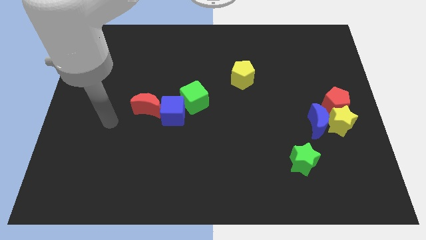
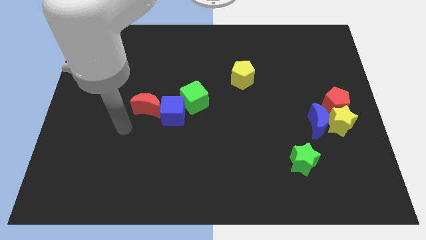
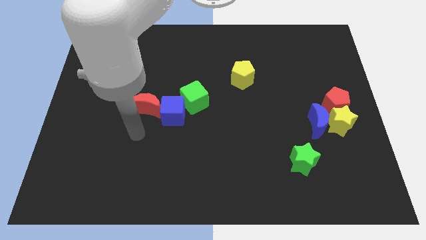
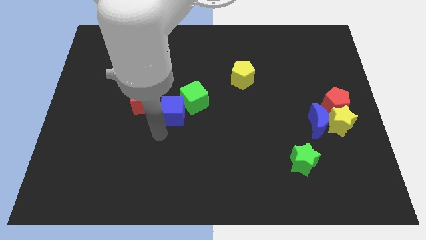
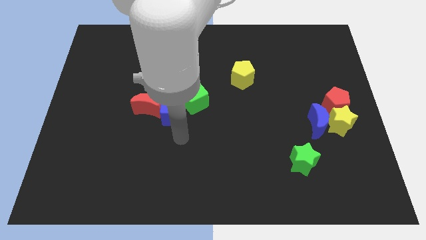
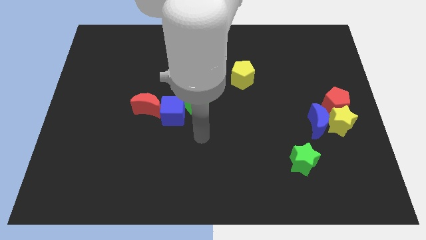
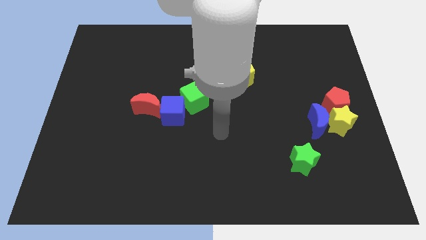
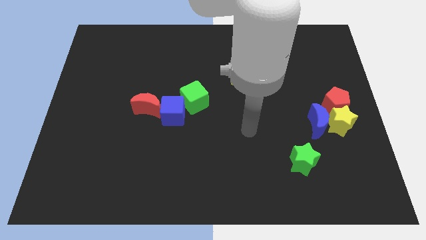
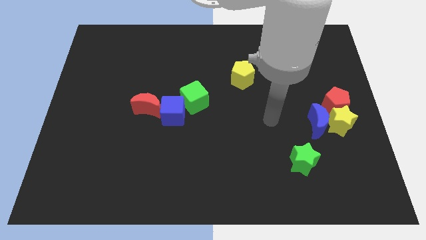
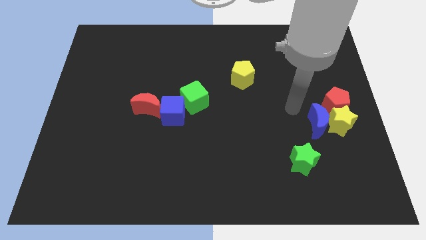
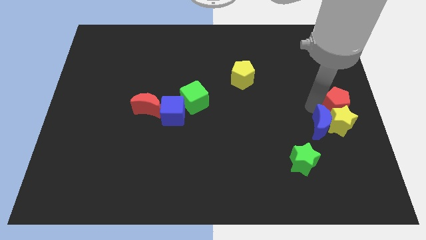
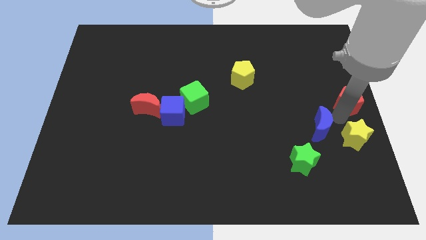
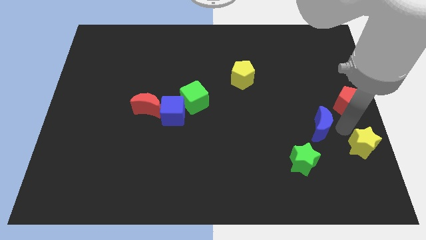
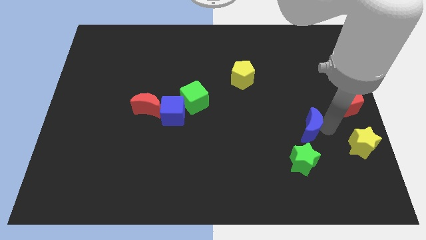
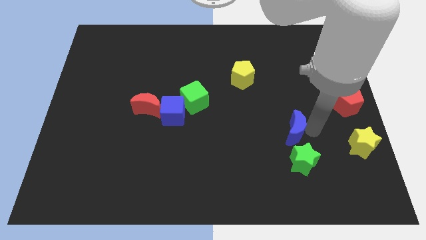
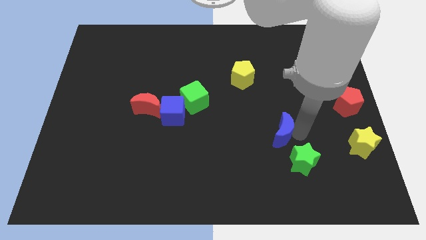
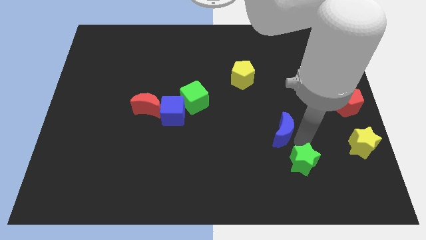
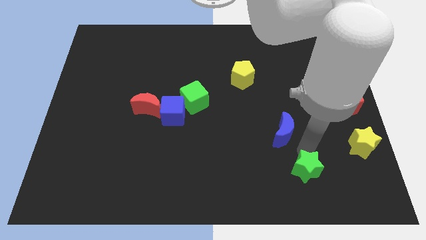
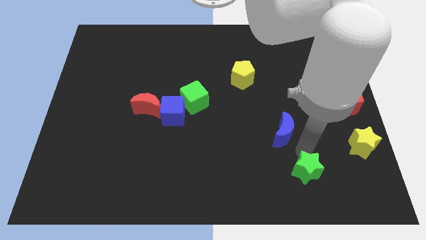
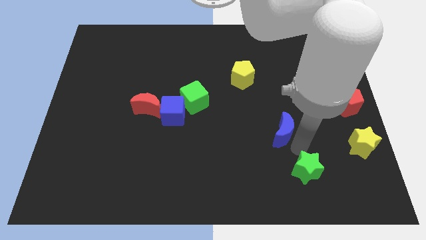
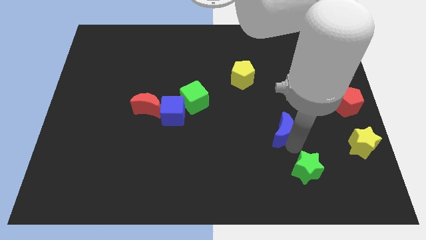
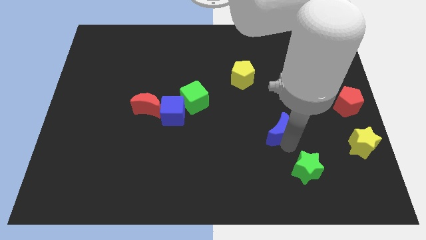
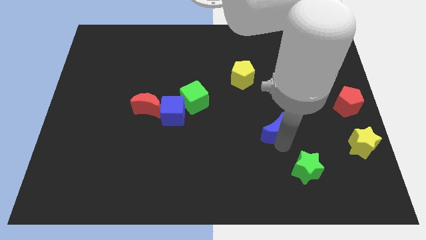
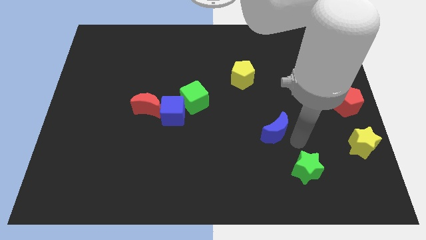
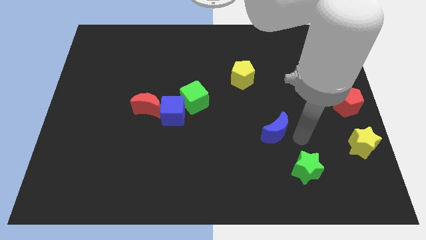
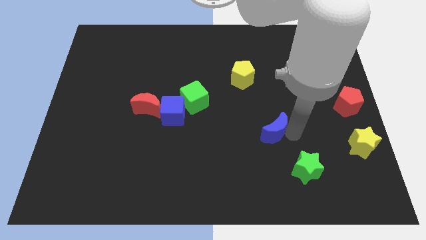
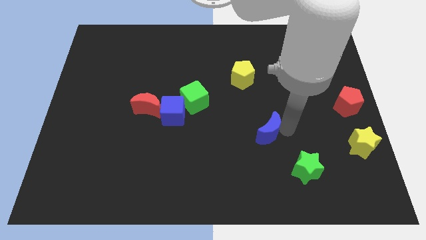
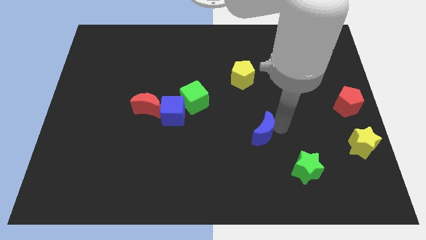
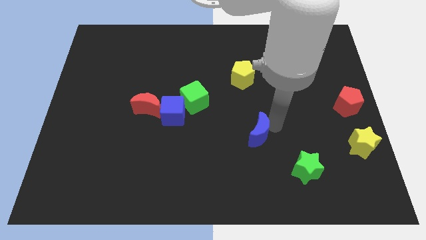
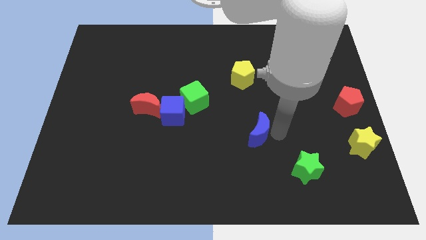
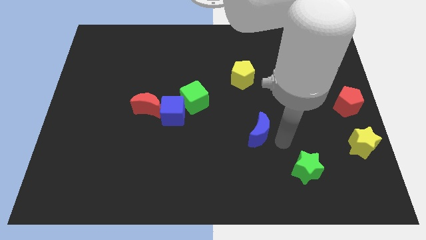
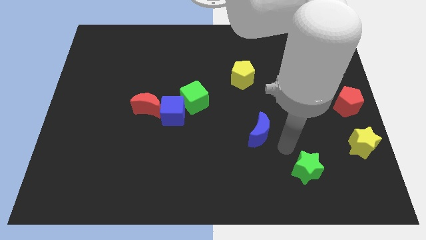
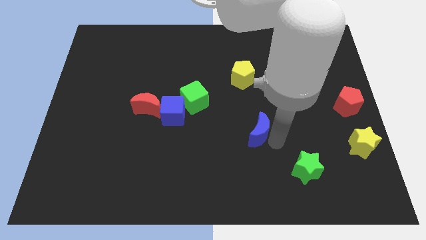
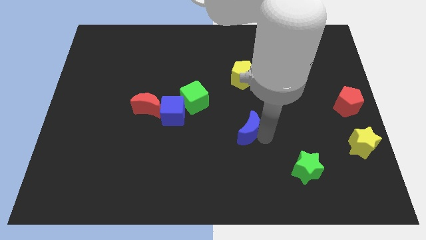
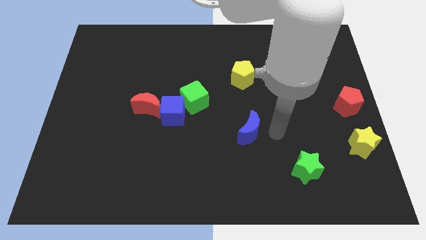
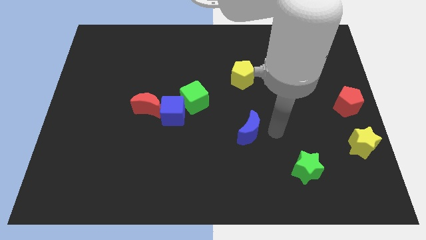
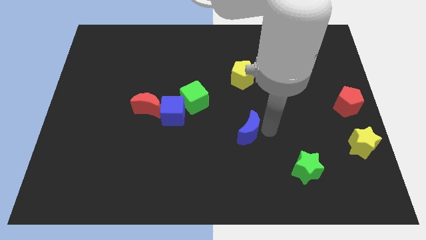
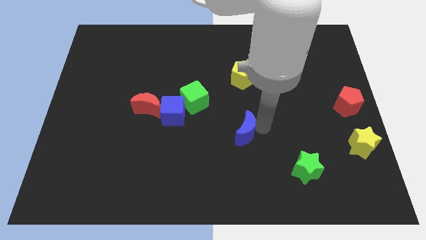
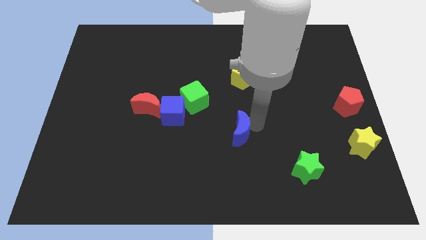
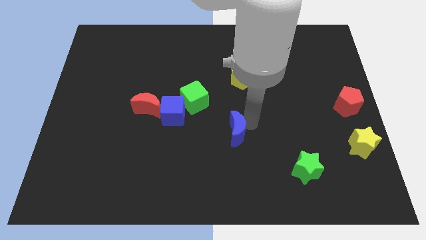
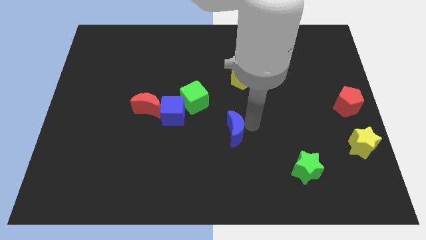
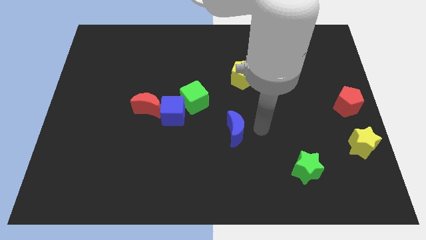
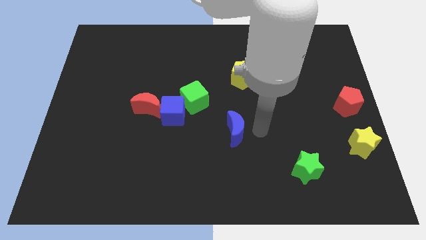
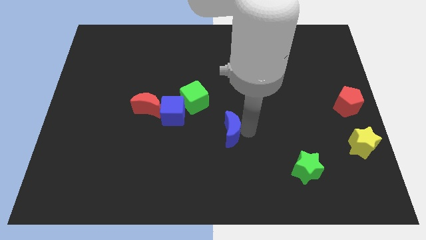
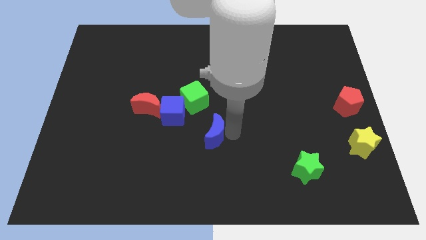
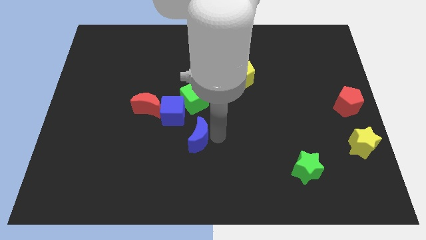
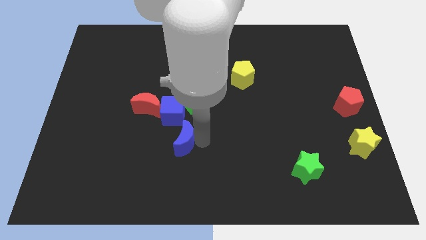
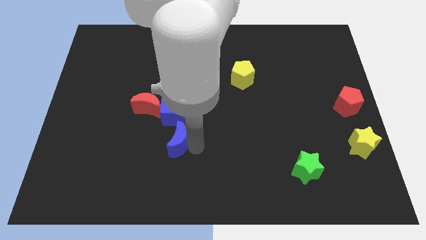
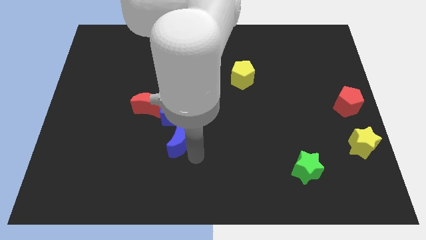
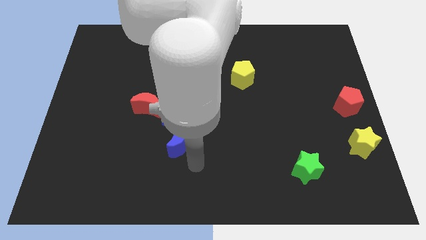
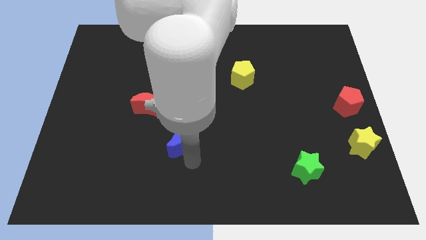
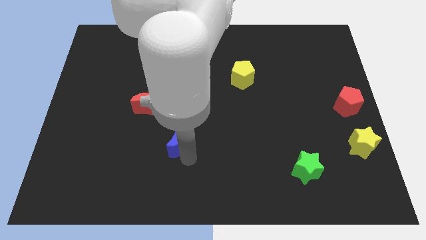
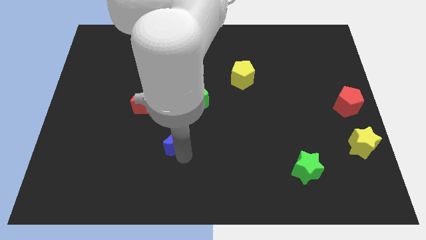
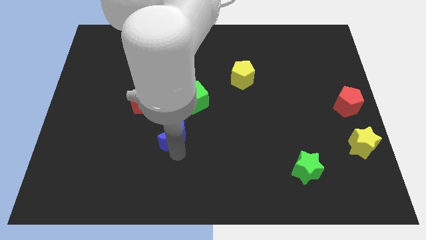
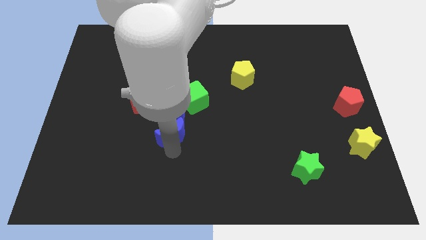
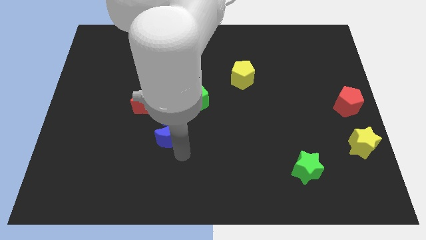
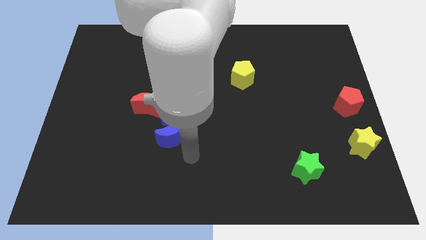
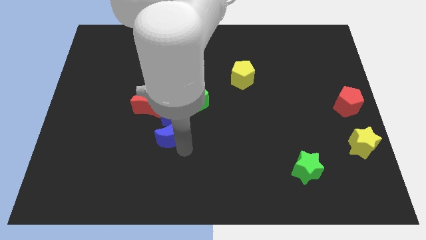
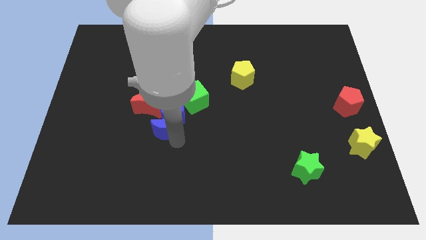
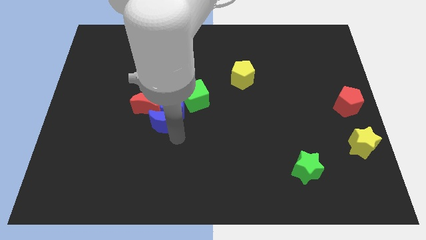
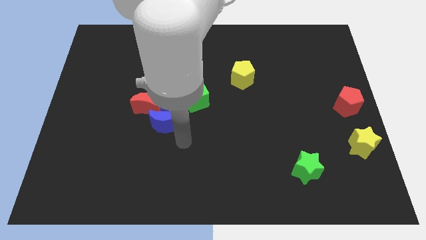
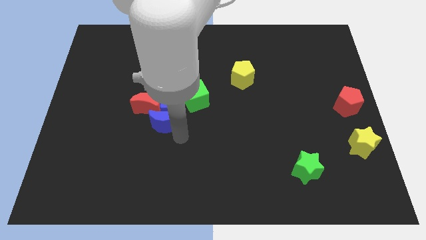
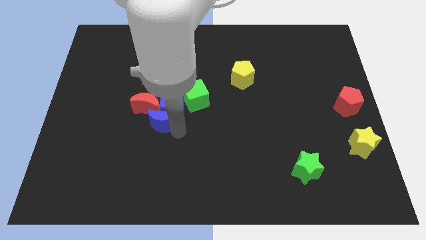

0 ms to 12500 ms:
move the blue moon next to the red moon
